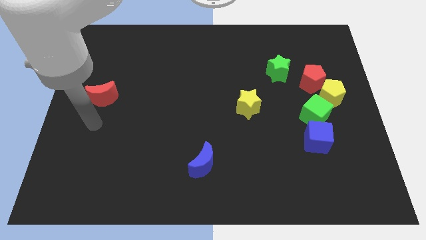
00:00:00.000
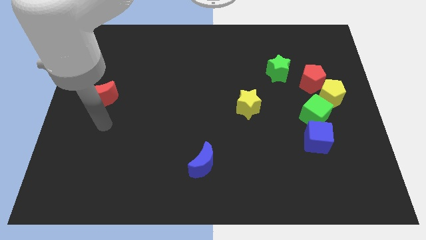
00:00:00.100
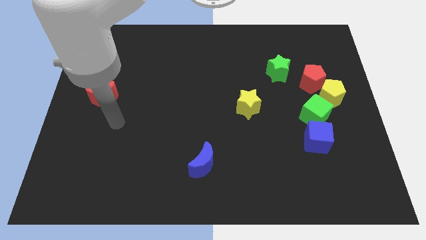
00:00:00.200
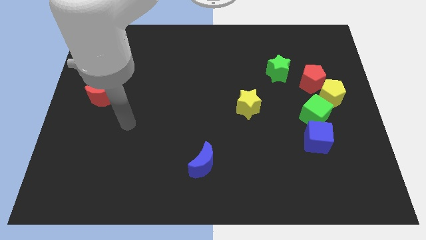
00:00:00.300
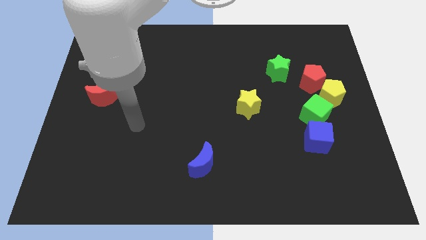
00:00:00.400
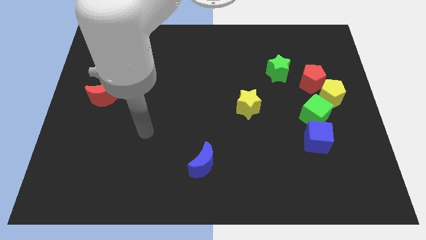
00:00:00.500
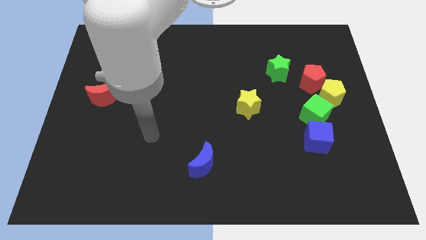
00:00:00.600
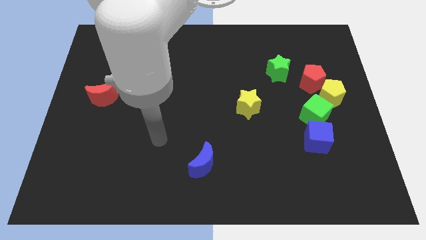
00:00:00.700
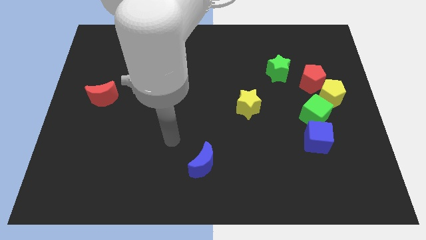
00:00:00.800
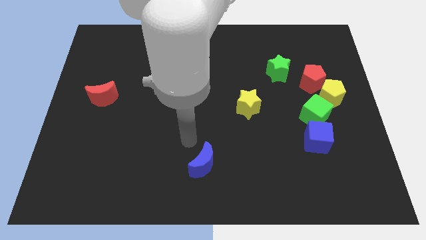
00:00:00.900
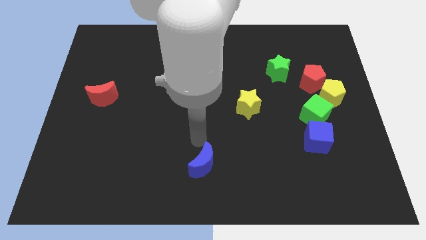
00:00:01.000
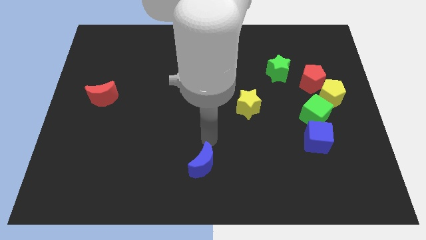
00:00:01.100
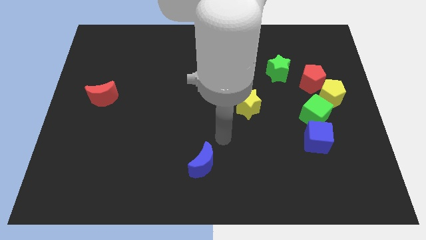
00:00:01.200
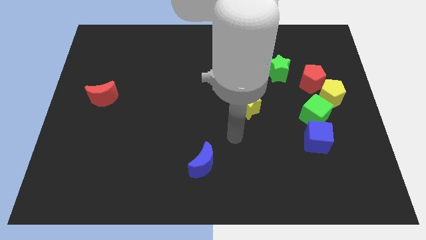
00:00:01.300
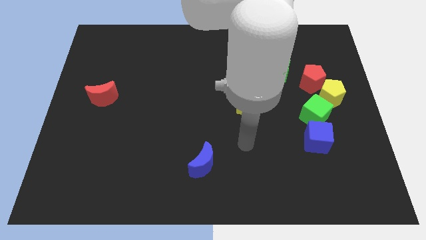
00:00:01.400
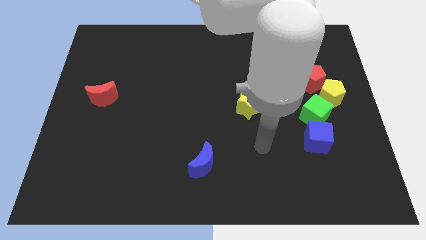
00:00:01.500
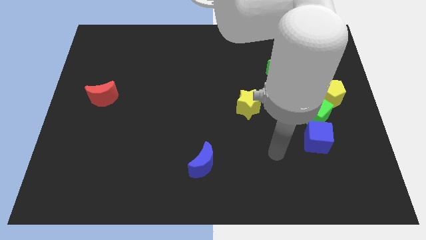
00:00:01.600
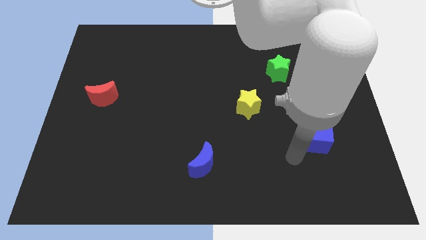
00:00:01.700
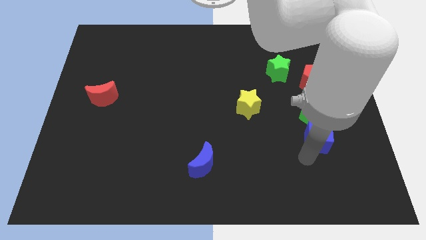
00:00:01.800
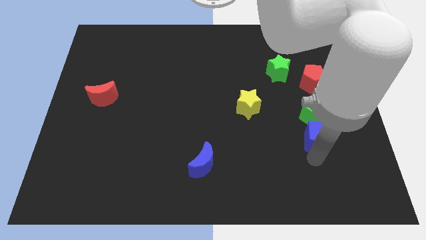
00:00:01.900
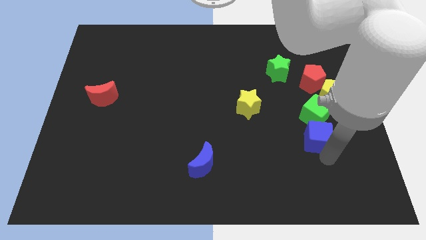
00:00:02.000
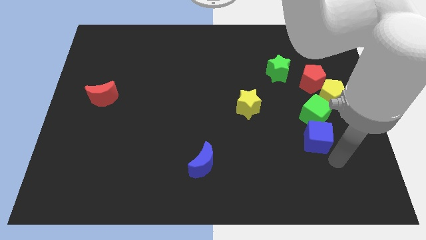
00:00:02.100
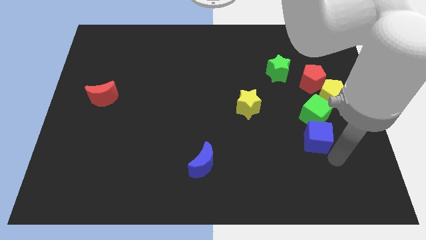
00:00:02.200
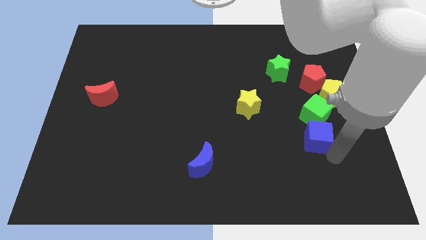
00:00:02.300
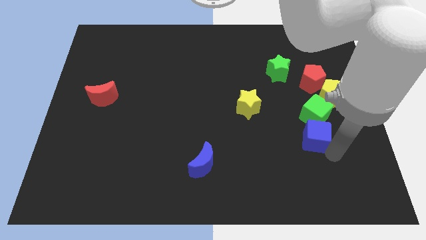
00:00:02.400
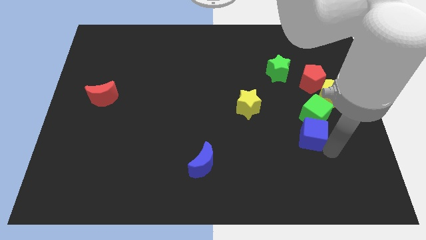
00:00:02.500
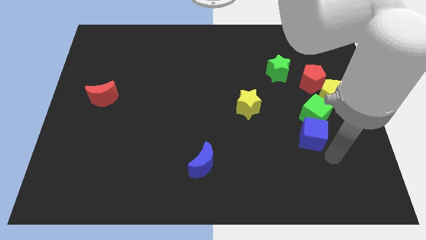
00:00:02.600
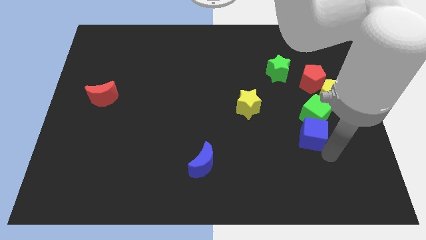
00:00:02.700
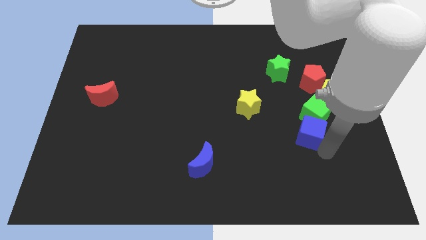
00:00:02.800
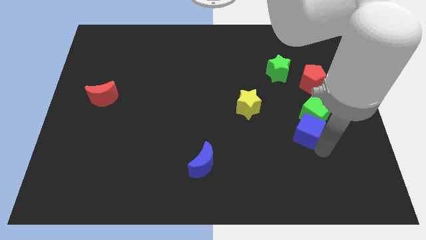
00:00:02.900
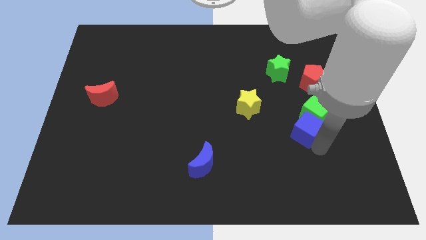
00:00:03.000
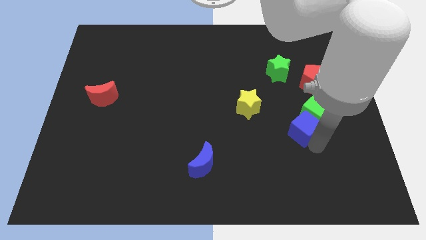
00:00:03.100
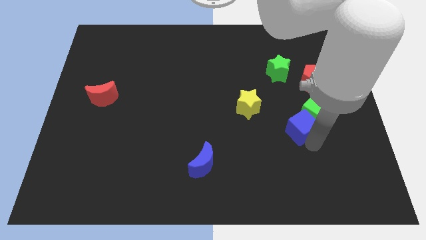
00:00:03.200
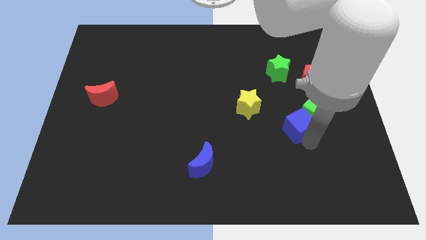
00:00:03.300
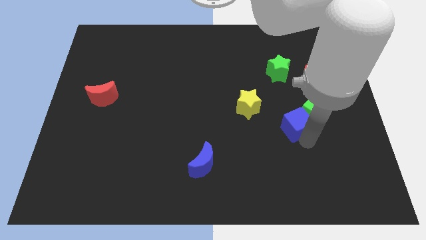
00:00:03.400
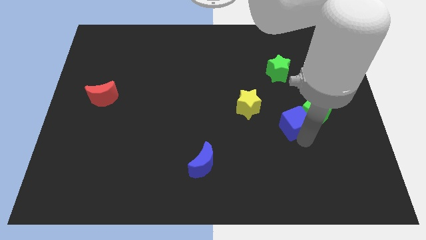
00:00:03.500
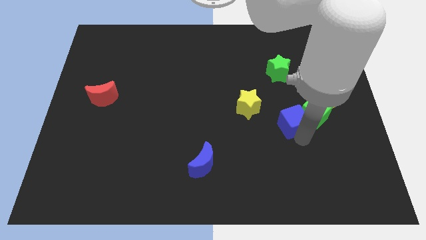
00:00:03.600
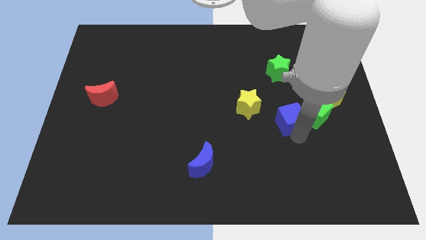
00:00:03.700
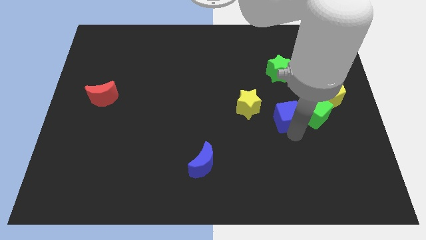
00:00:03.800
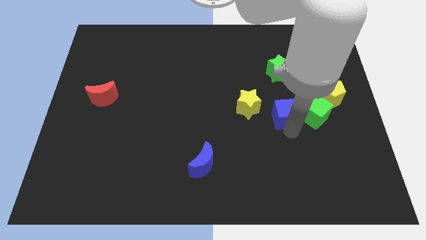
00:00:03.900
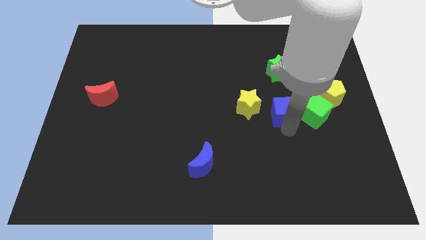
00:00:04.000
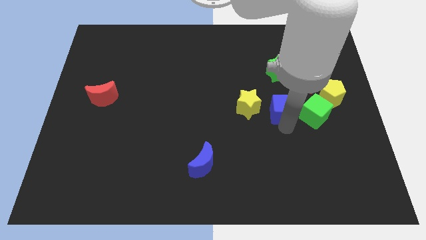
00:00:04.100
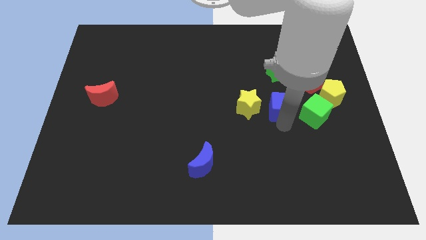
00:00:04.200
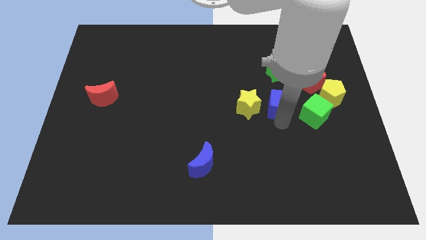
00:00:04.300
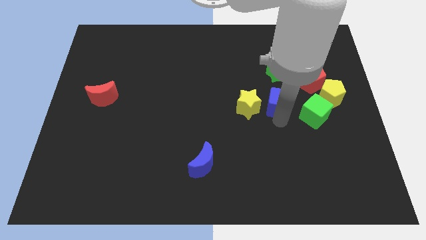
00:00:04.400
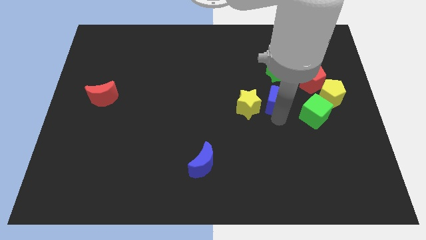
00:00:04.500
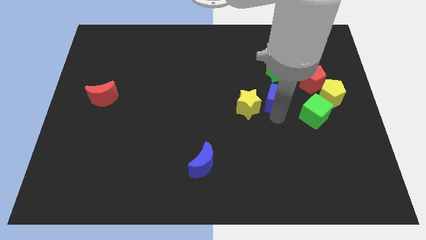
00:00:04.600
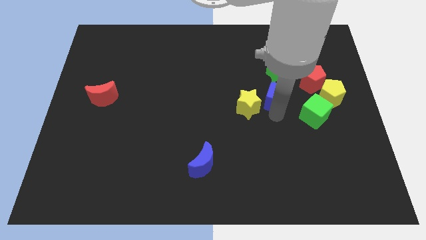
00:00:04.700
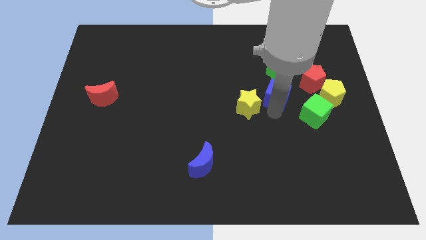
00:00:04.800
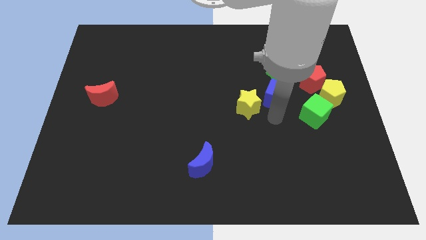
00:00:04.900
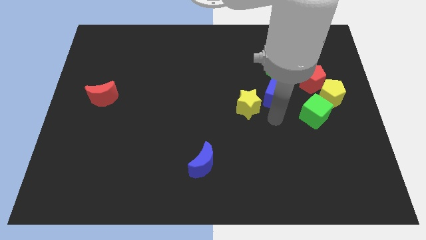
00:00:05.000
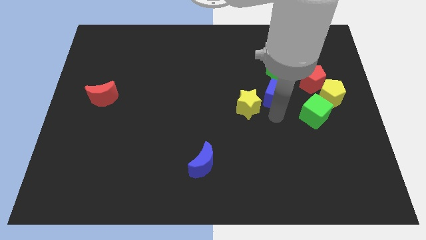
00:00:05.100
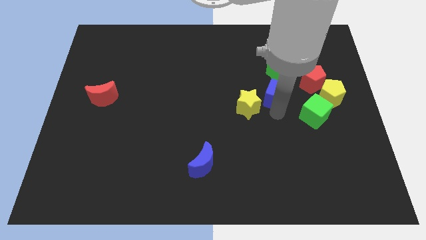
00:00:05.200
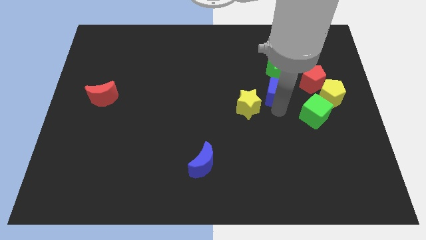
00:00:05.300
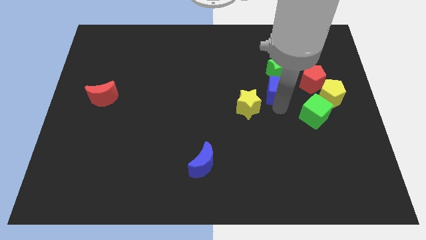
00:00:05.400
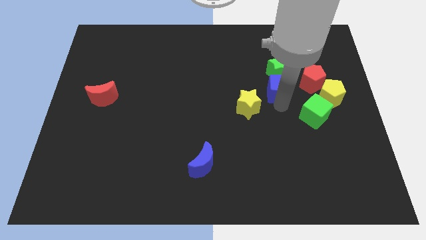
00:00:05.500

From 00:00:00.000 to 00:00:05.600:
slide the blue cube close to the green star

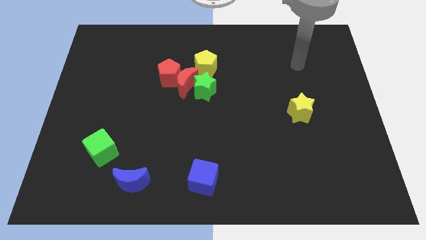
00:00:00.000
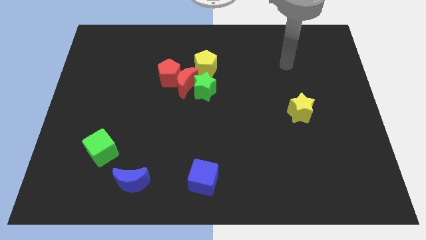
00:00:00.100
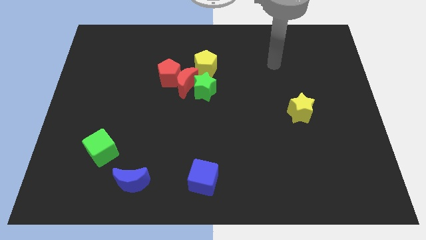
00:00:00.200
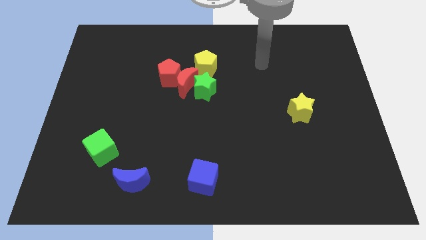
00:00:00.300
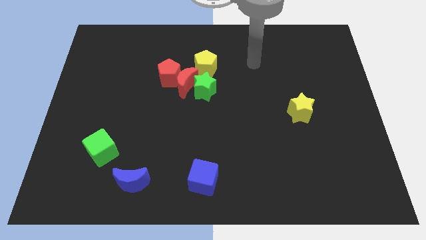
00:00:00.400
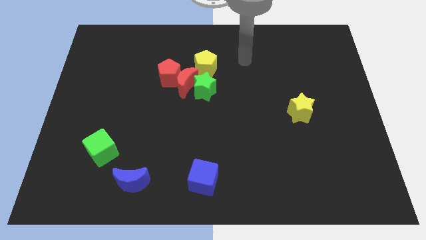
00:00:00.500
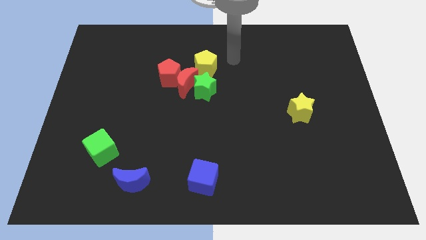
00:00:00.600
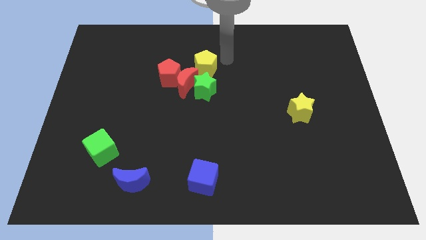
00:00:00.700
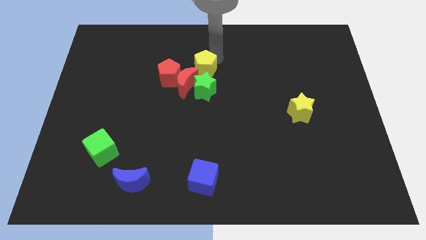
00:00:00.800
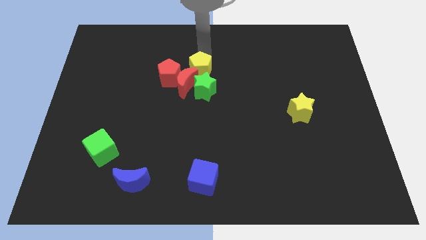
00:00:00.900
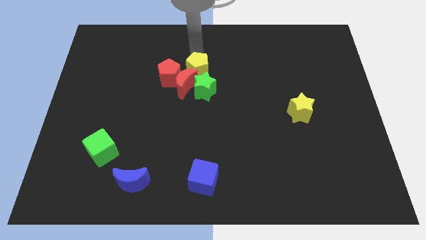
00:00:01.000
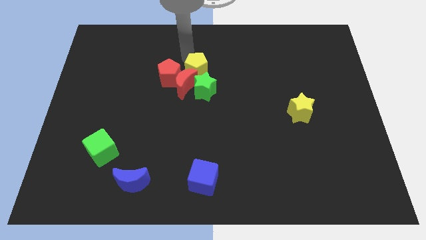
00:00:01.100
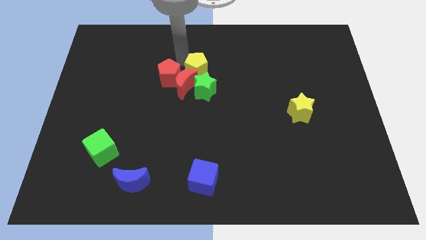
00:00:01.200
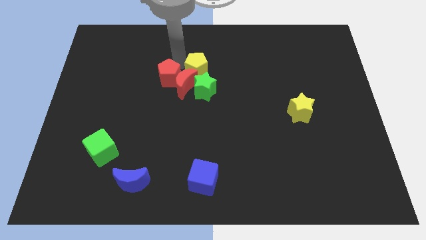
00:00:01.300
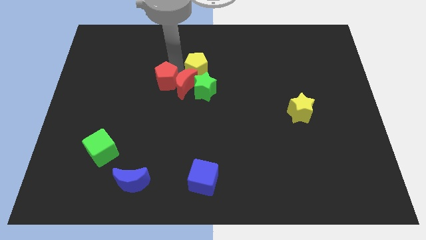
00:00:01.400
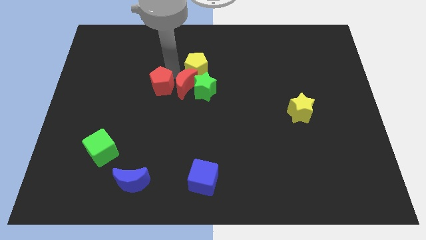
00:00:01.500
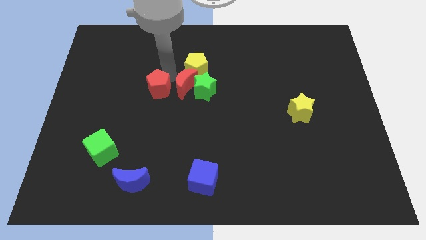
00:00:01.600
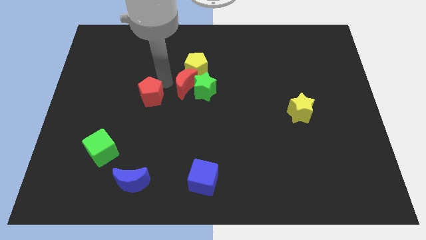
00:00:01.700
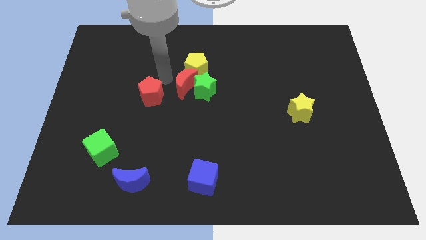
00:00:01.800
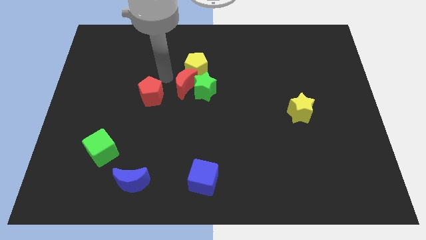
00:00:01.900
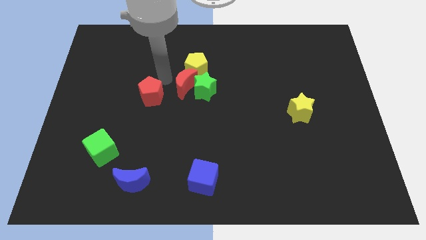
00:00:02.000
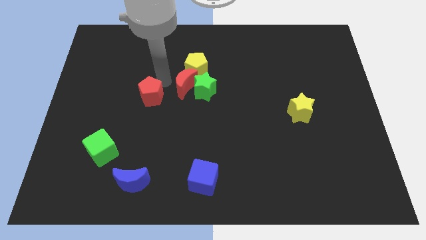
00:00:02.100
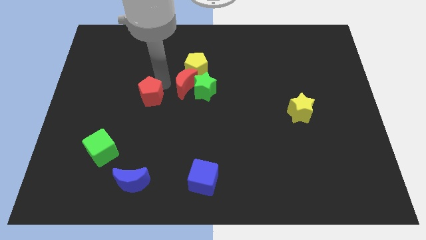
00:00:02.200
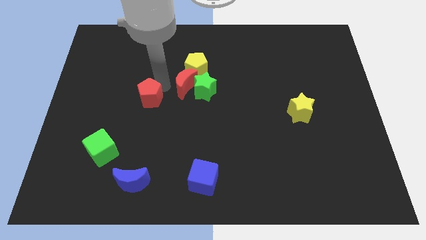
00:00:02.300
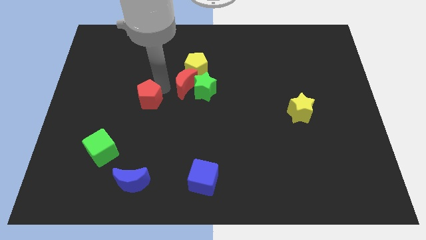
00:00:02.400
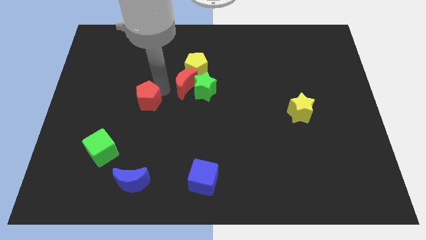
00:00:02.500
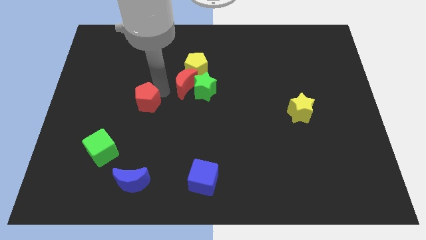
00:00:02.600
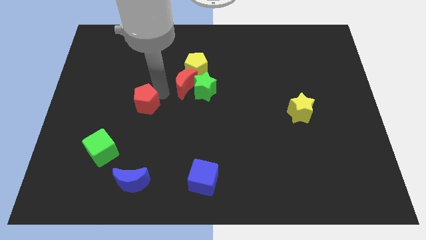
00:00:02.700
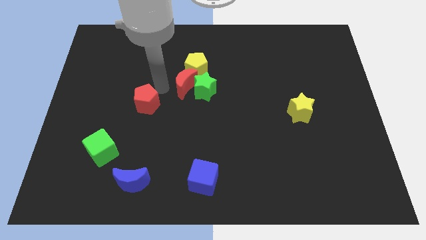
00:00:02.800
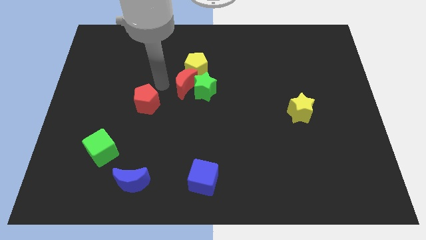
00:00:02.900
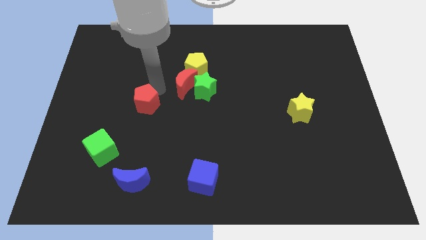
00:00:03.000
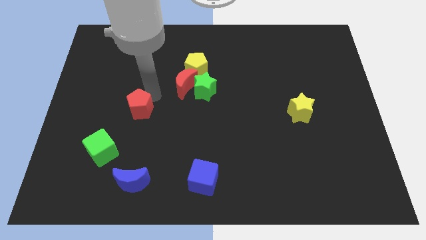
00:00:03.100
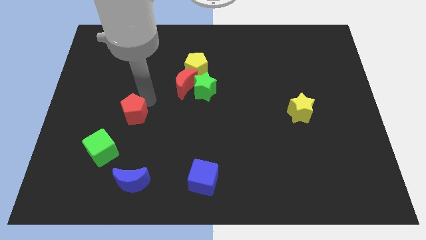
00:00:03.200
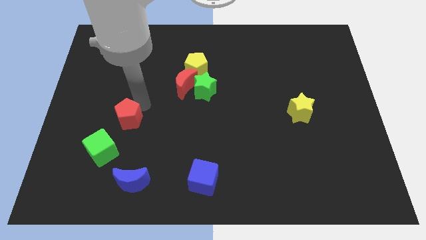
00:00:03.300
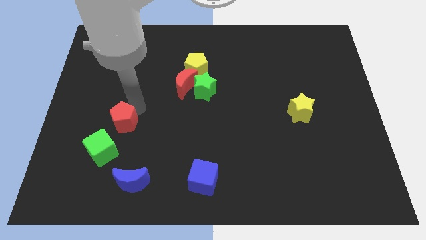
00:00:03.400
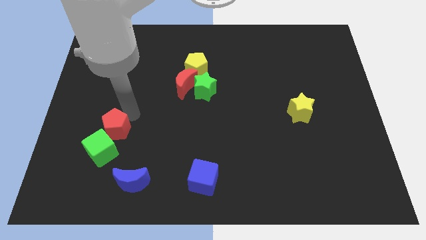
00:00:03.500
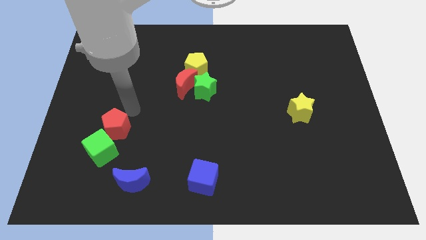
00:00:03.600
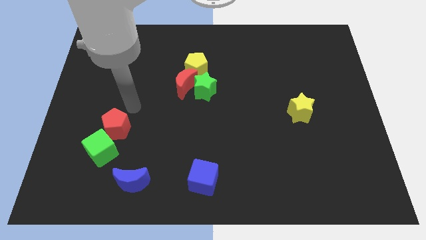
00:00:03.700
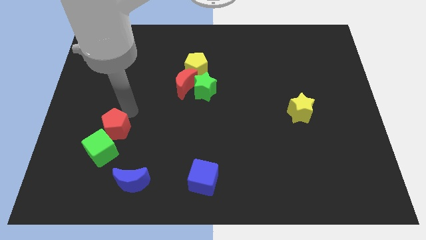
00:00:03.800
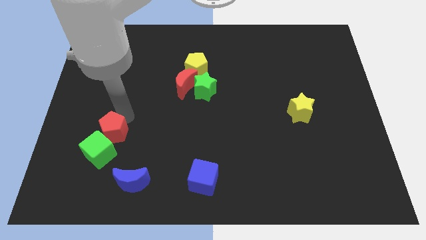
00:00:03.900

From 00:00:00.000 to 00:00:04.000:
slide the red pentagon to the green cube
